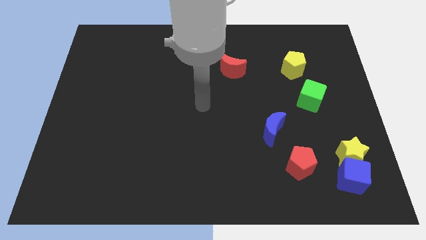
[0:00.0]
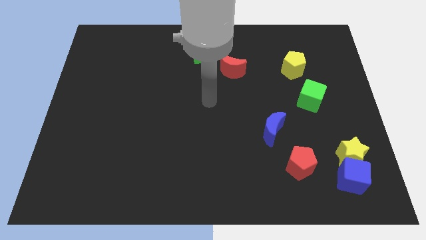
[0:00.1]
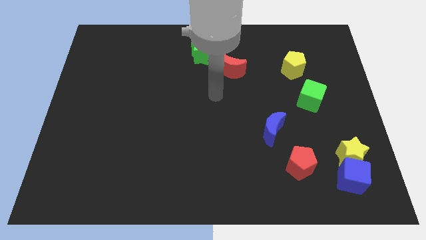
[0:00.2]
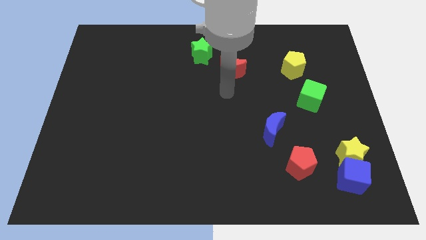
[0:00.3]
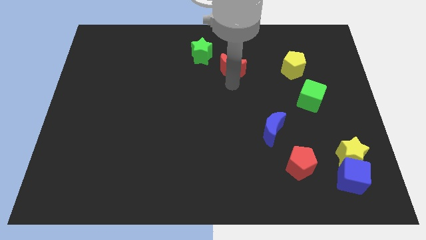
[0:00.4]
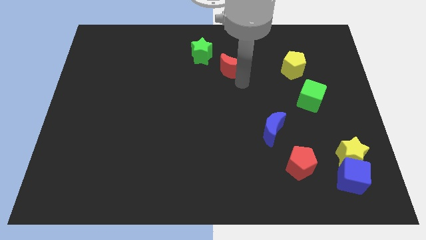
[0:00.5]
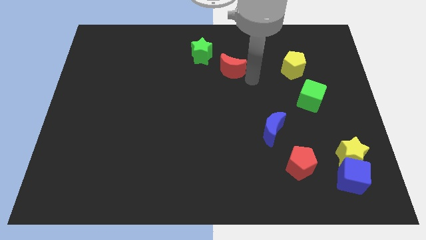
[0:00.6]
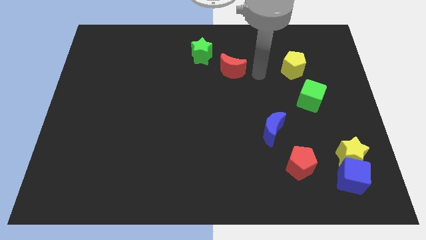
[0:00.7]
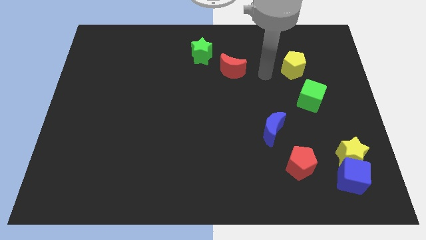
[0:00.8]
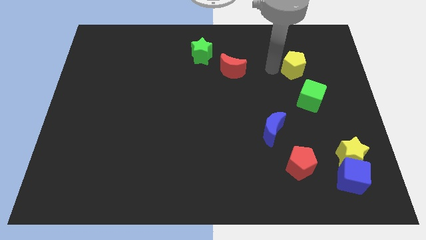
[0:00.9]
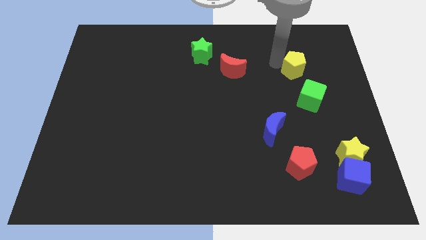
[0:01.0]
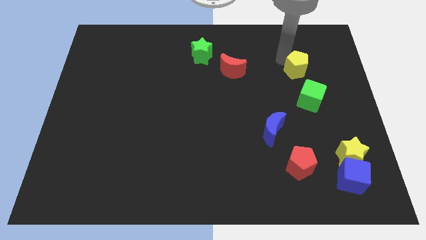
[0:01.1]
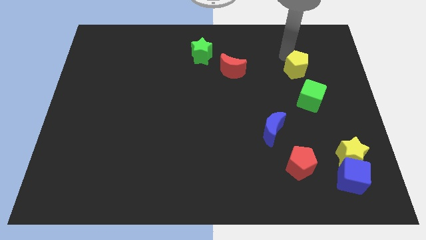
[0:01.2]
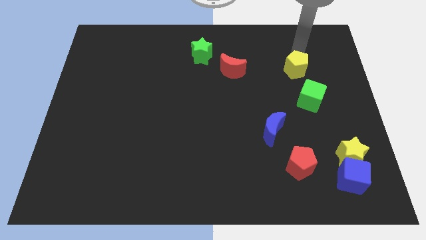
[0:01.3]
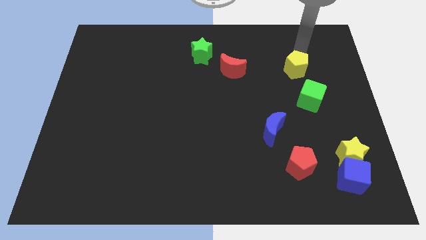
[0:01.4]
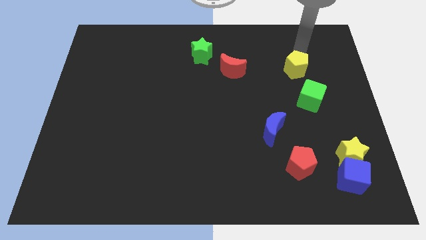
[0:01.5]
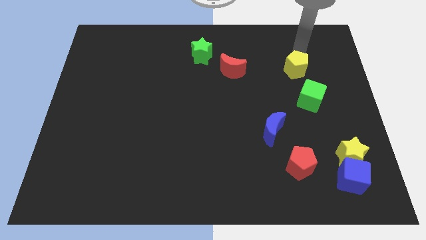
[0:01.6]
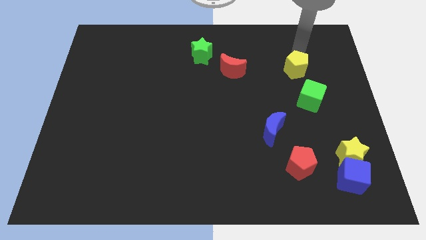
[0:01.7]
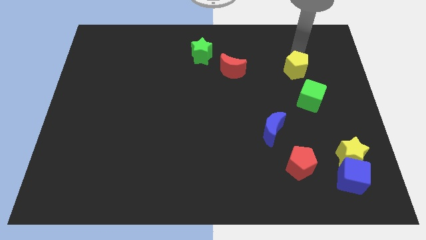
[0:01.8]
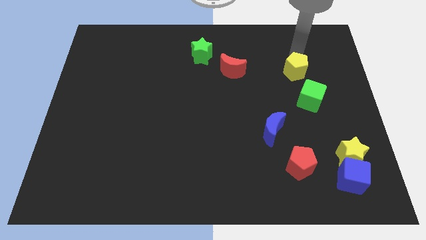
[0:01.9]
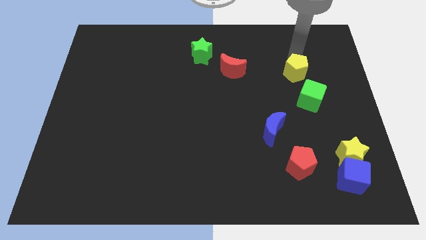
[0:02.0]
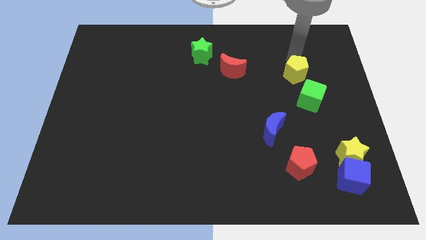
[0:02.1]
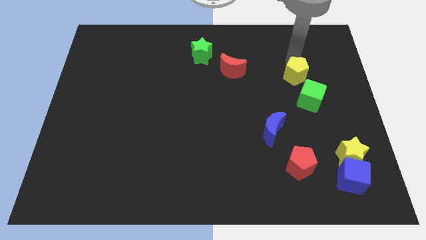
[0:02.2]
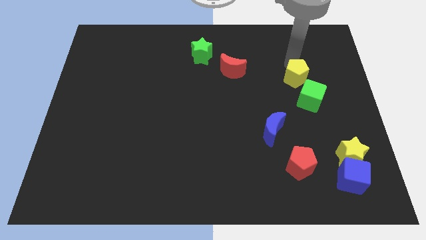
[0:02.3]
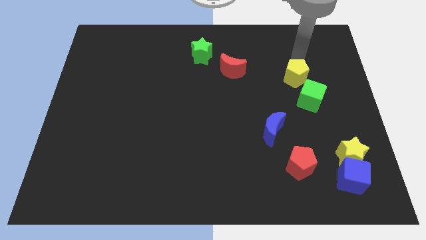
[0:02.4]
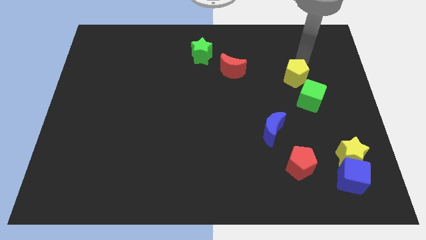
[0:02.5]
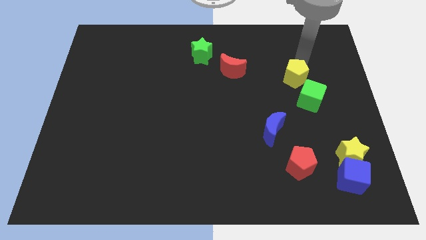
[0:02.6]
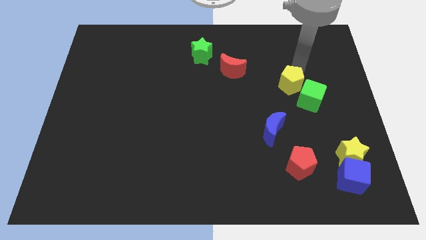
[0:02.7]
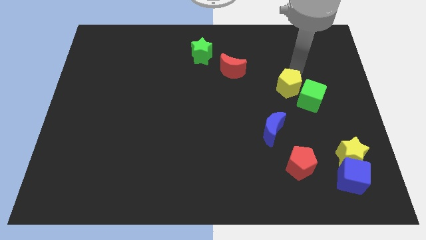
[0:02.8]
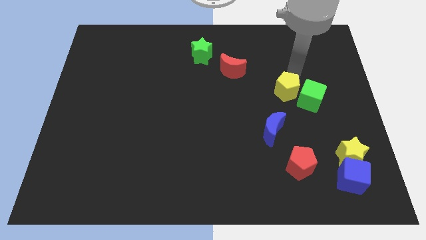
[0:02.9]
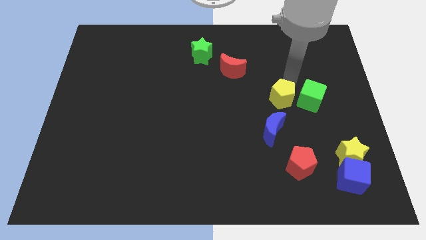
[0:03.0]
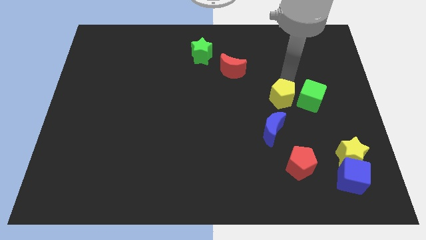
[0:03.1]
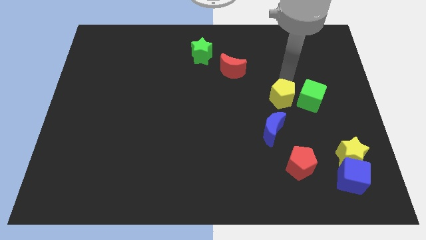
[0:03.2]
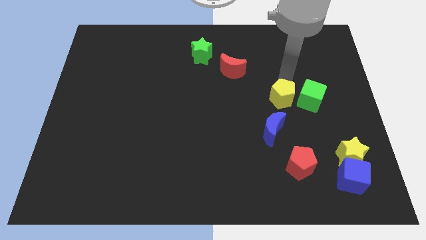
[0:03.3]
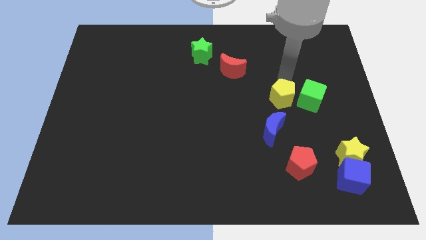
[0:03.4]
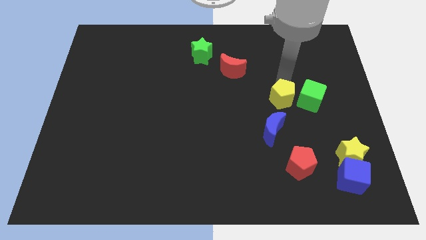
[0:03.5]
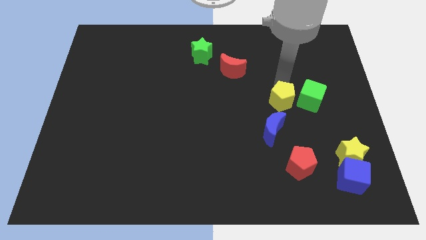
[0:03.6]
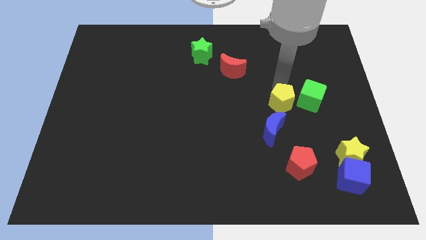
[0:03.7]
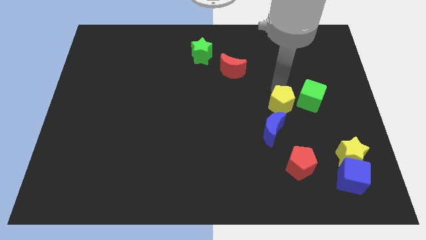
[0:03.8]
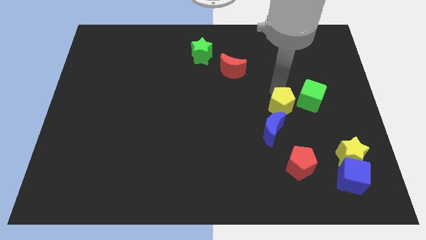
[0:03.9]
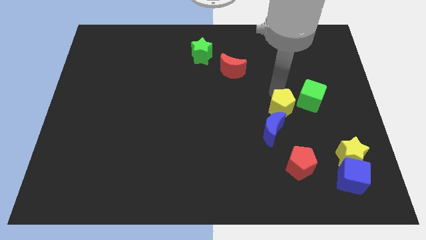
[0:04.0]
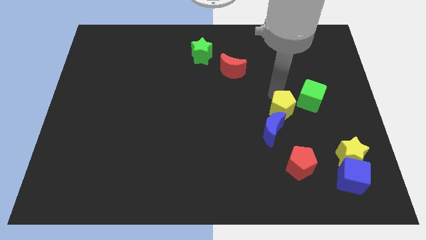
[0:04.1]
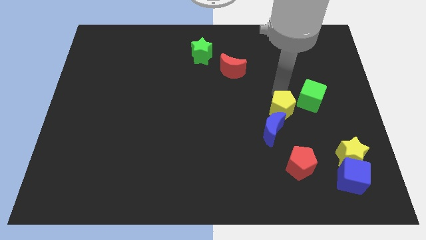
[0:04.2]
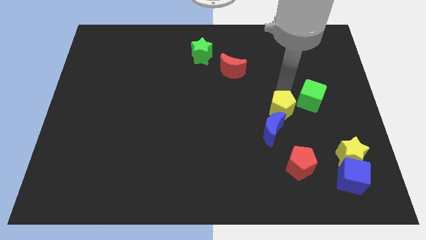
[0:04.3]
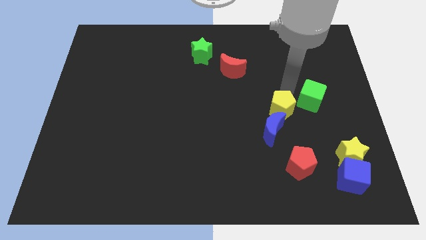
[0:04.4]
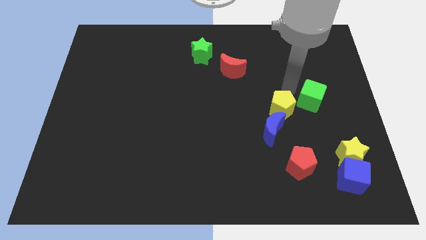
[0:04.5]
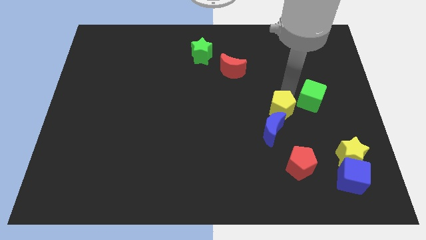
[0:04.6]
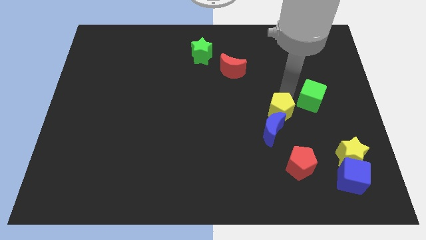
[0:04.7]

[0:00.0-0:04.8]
move the yellow pentagon to the blue moon

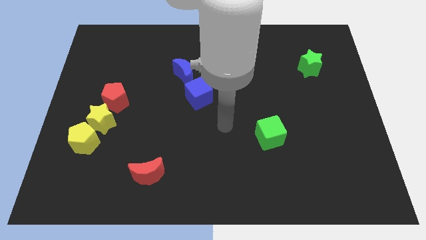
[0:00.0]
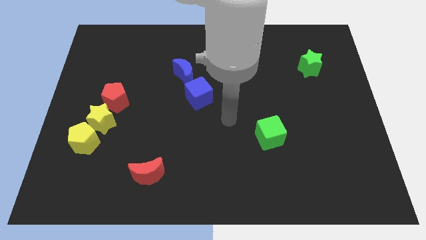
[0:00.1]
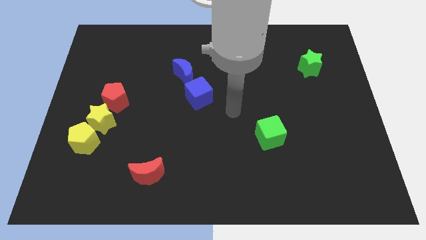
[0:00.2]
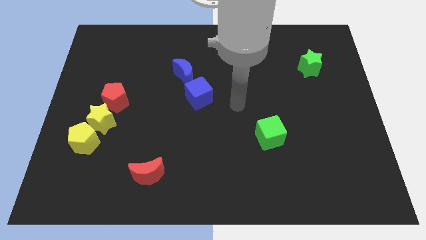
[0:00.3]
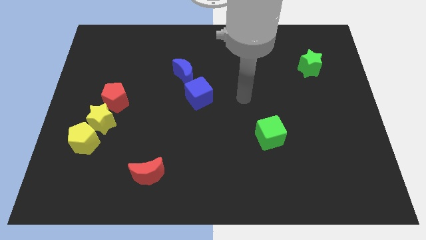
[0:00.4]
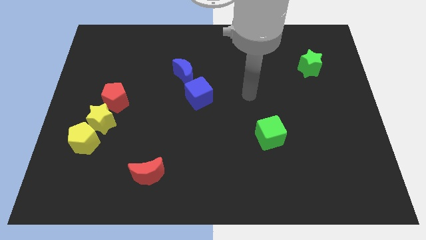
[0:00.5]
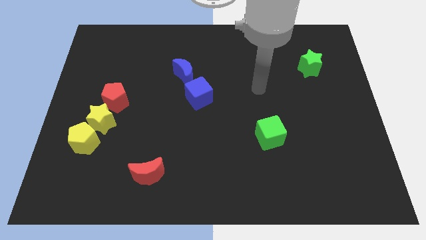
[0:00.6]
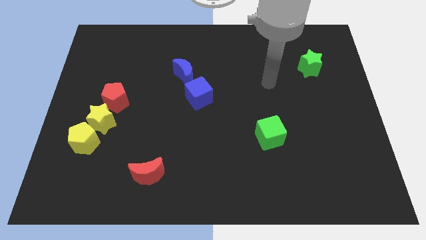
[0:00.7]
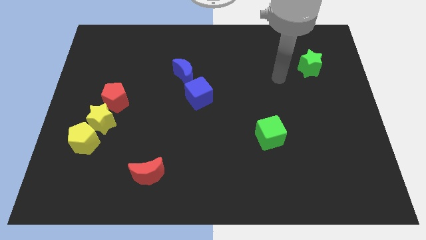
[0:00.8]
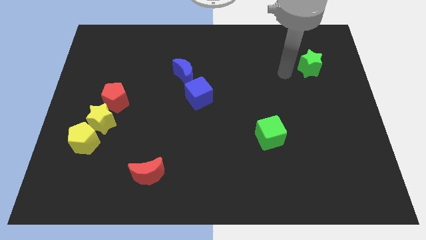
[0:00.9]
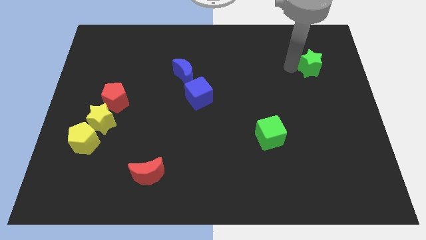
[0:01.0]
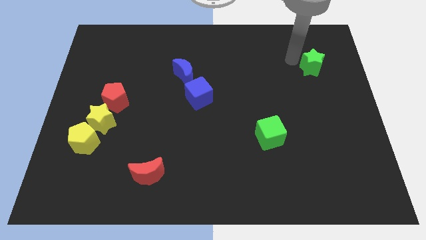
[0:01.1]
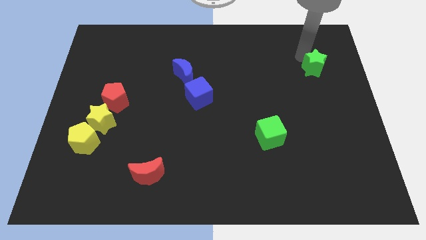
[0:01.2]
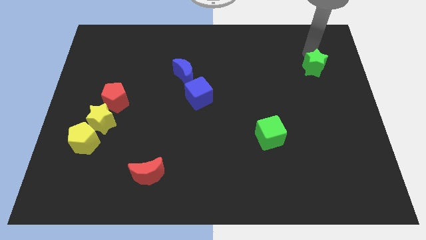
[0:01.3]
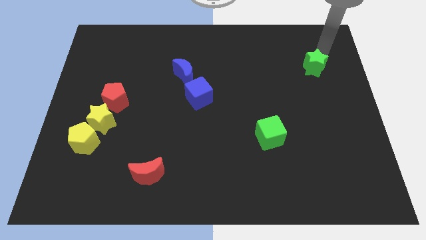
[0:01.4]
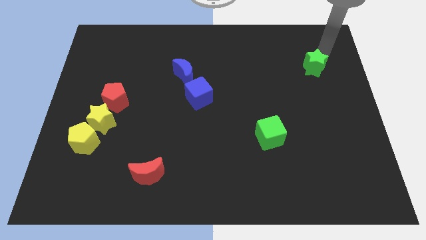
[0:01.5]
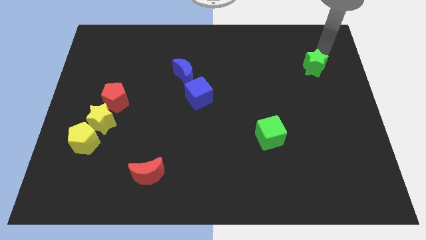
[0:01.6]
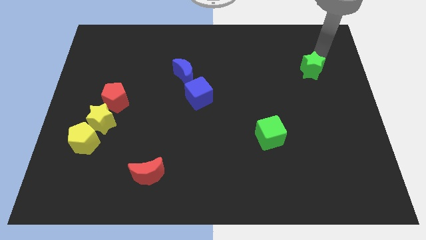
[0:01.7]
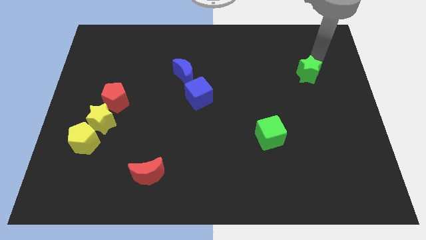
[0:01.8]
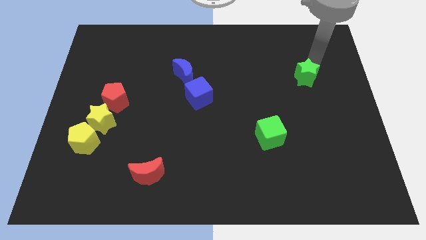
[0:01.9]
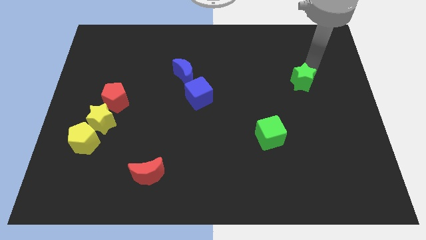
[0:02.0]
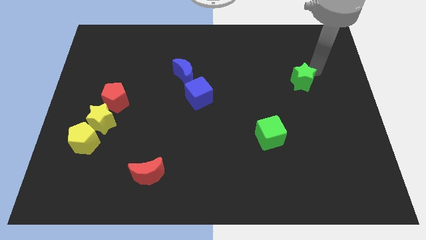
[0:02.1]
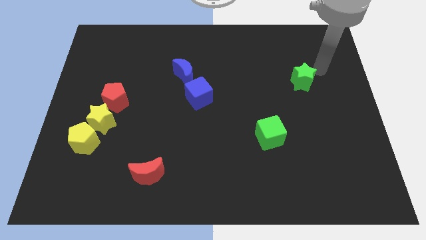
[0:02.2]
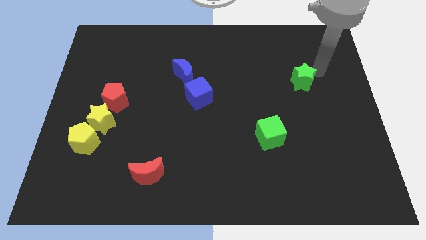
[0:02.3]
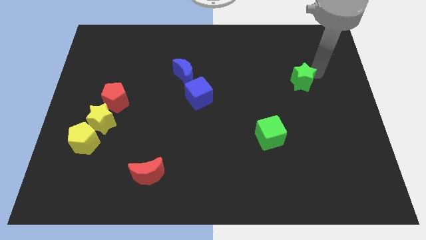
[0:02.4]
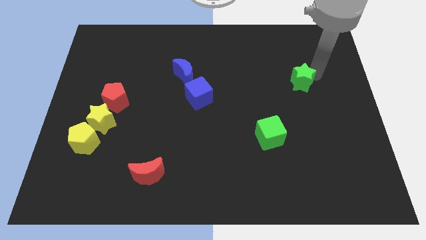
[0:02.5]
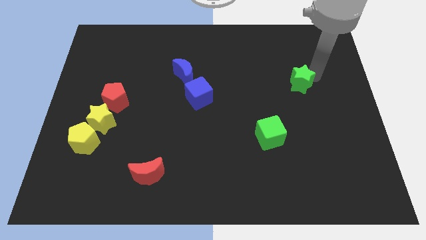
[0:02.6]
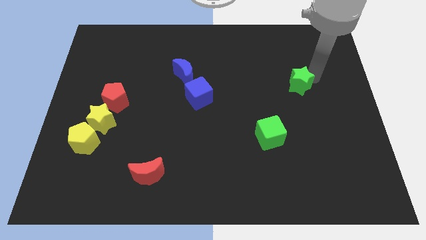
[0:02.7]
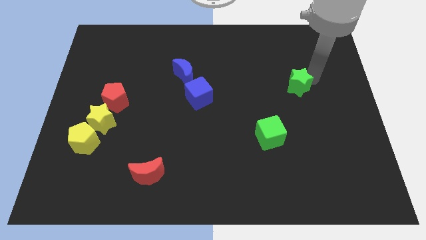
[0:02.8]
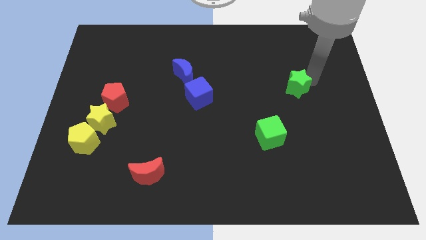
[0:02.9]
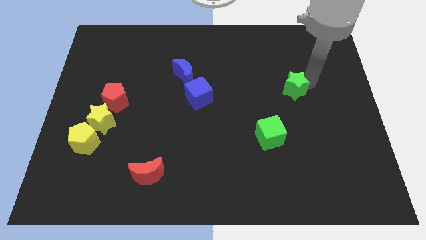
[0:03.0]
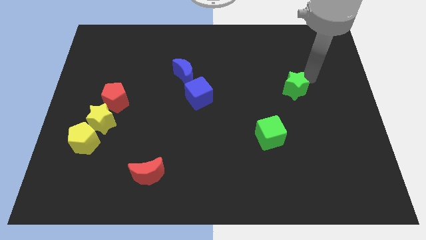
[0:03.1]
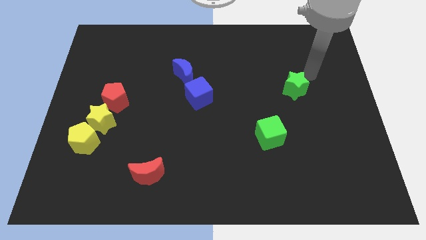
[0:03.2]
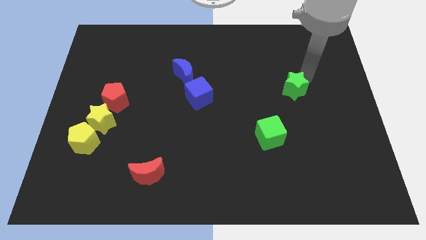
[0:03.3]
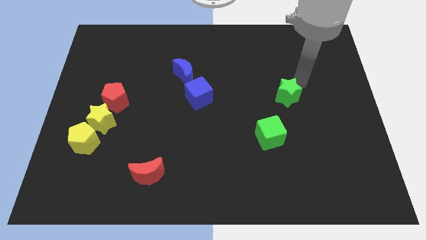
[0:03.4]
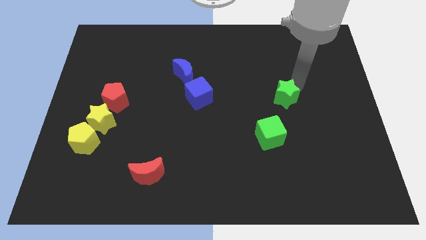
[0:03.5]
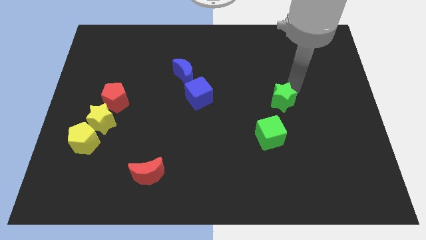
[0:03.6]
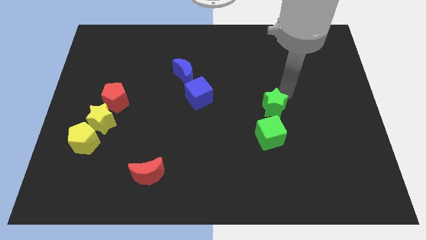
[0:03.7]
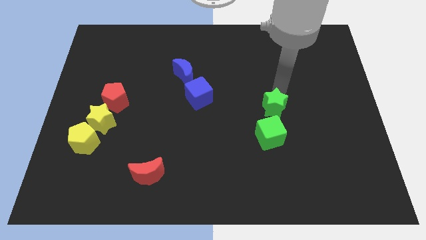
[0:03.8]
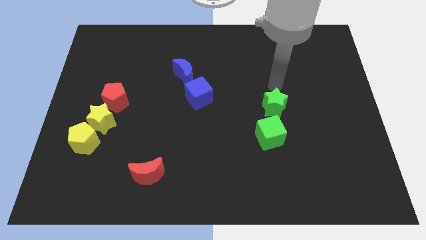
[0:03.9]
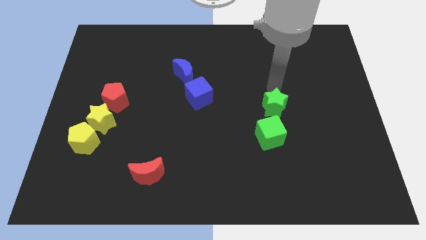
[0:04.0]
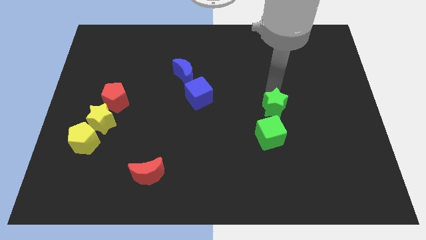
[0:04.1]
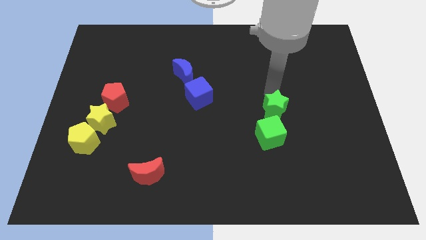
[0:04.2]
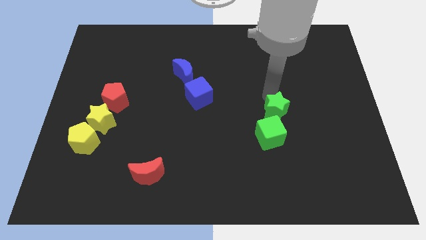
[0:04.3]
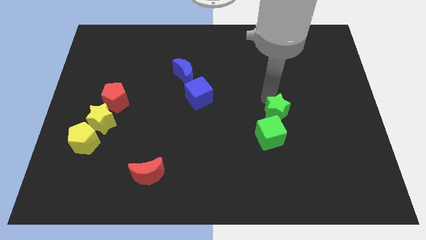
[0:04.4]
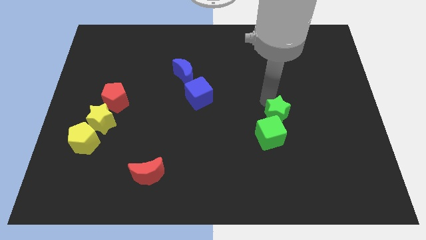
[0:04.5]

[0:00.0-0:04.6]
put the green star next to the green cube
